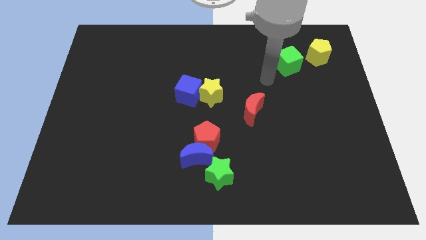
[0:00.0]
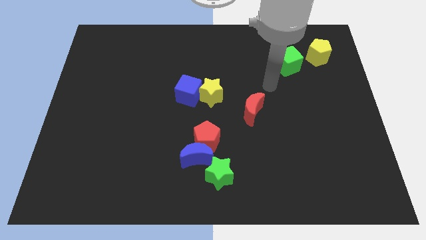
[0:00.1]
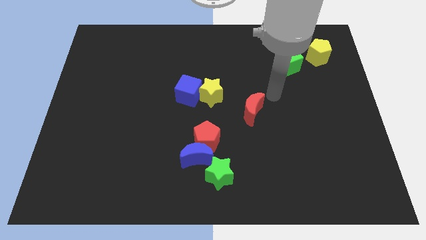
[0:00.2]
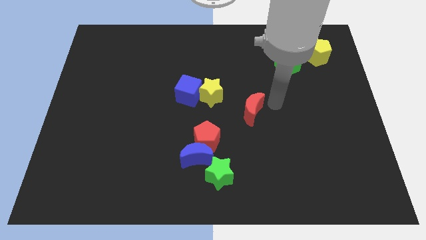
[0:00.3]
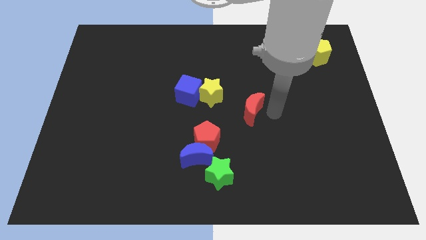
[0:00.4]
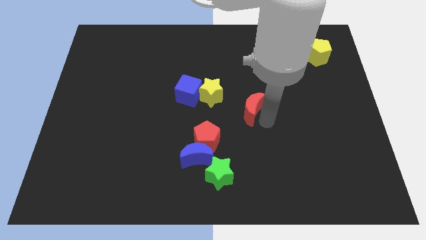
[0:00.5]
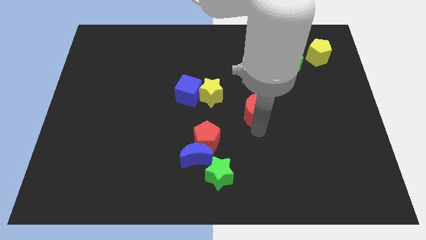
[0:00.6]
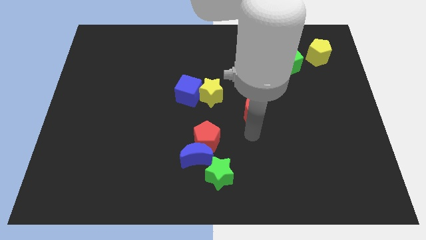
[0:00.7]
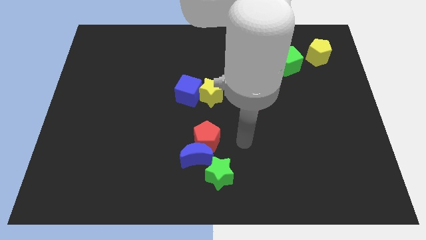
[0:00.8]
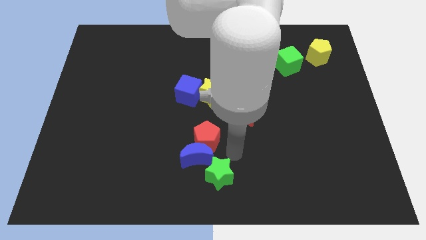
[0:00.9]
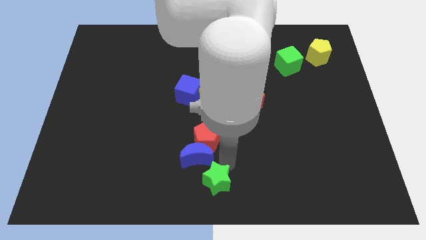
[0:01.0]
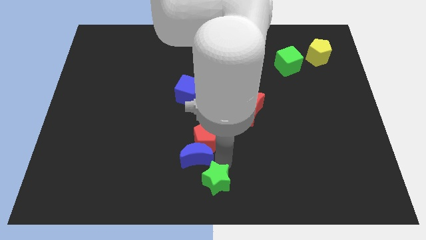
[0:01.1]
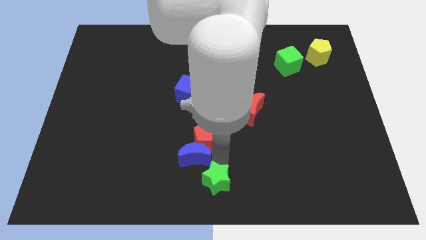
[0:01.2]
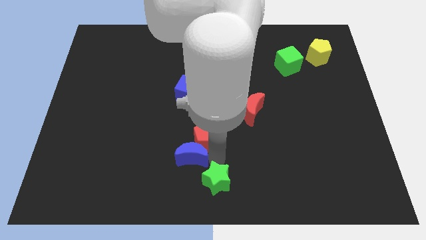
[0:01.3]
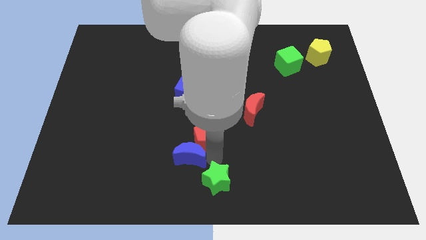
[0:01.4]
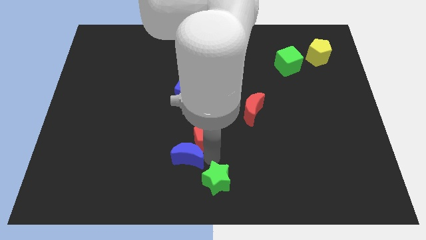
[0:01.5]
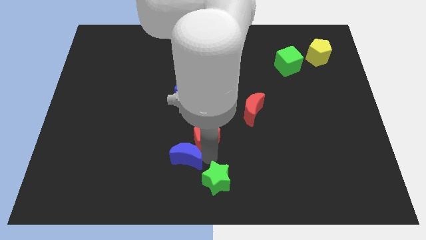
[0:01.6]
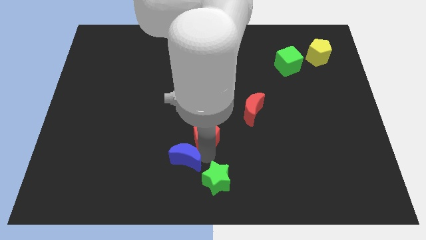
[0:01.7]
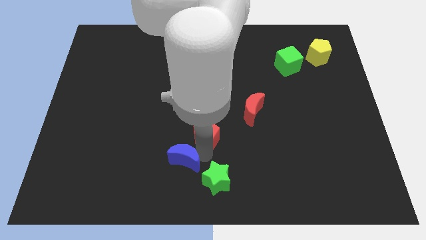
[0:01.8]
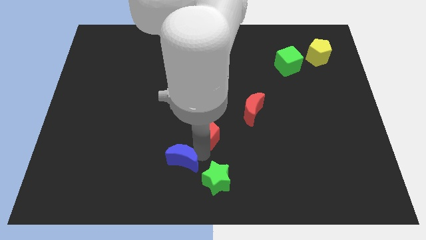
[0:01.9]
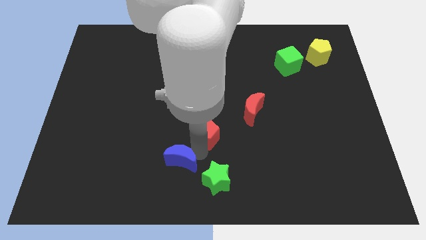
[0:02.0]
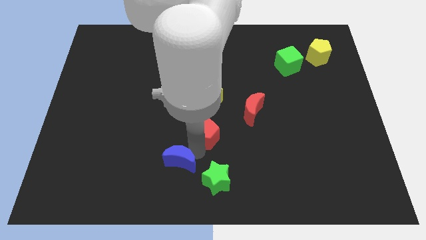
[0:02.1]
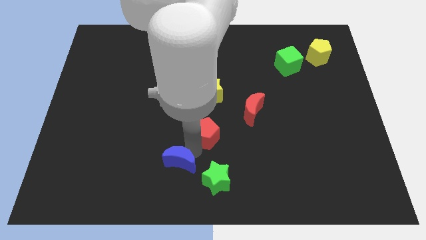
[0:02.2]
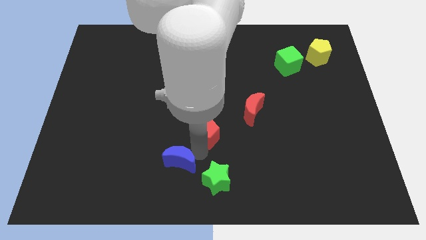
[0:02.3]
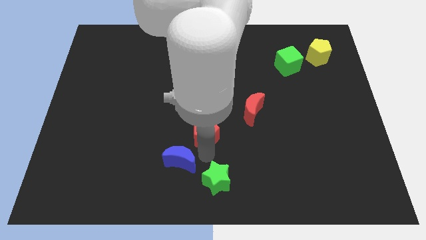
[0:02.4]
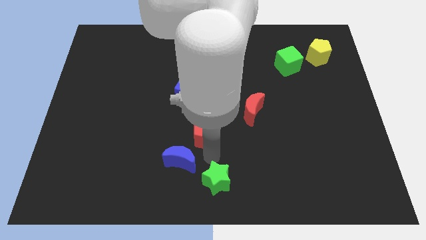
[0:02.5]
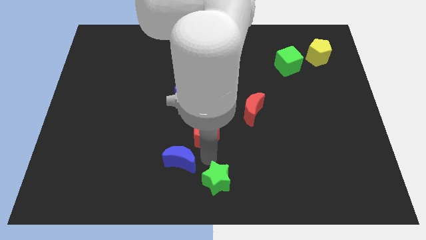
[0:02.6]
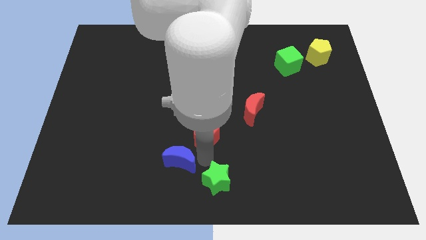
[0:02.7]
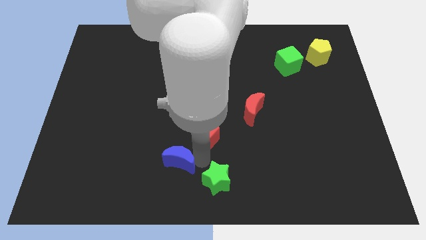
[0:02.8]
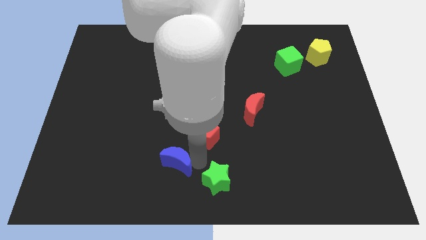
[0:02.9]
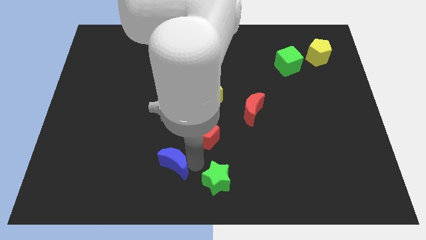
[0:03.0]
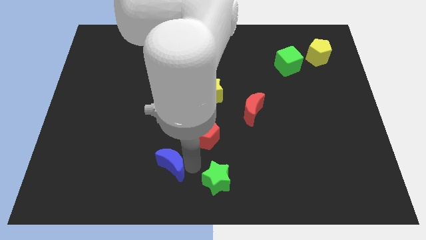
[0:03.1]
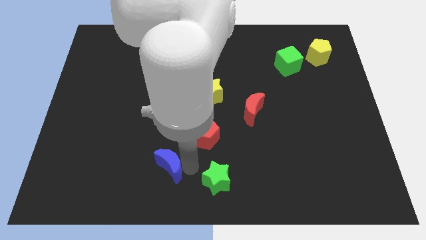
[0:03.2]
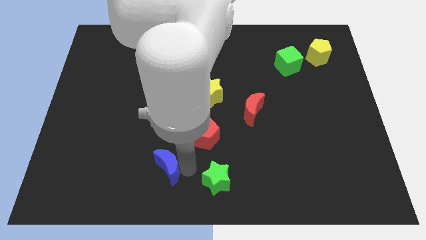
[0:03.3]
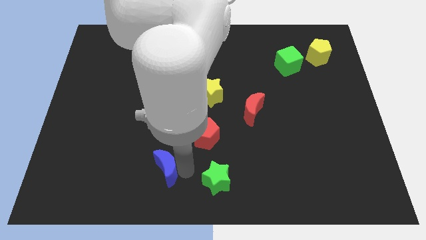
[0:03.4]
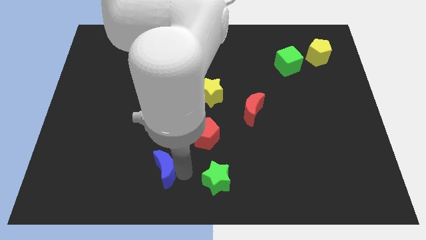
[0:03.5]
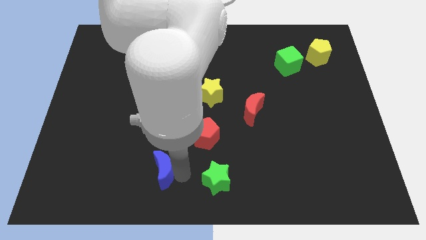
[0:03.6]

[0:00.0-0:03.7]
pull the blue moon apart from the red pentagon and green star

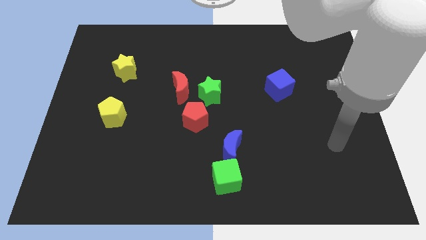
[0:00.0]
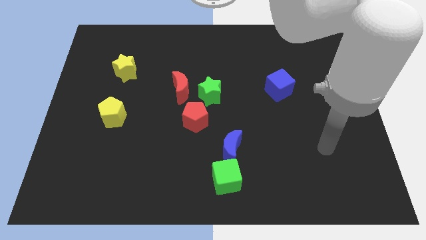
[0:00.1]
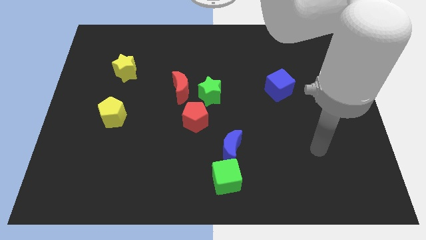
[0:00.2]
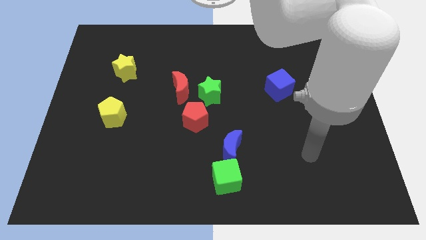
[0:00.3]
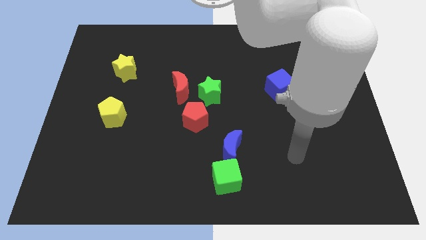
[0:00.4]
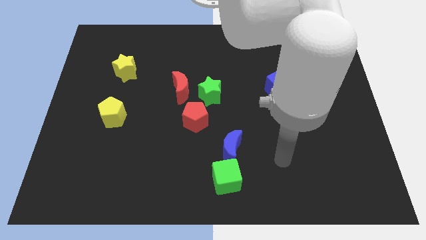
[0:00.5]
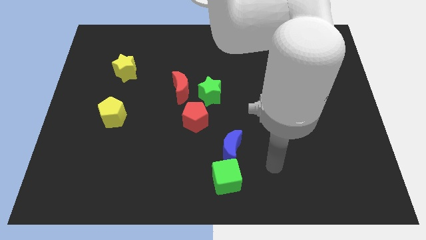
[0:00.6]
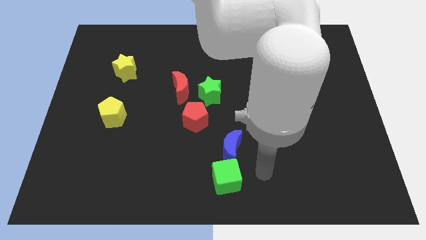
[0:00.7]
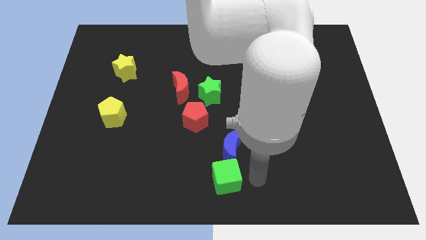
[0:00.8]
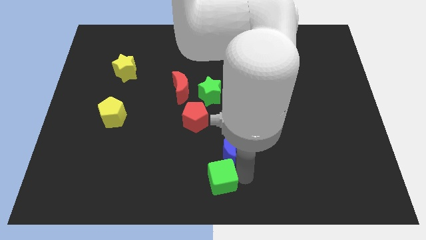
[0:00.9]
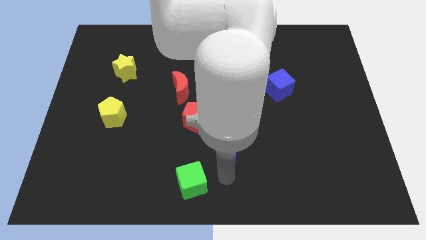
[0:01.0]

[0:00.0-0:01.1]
move the blue moon away from the green cube

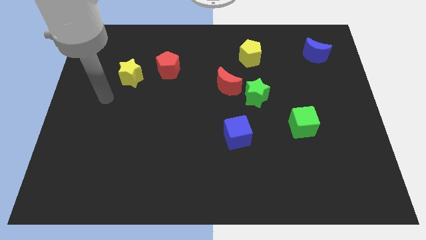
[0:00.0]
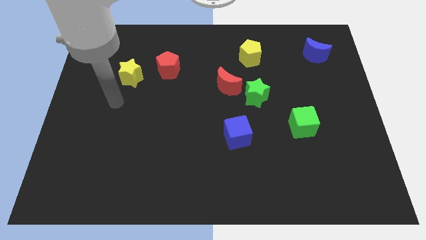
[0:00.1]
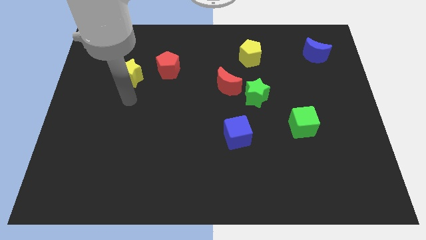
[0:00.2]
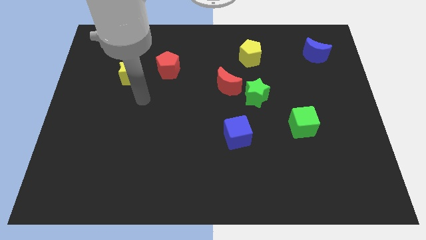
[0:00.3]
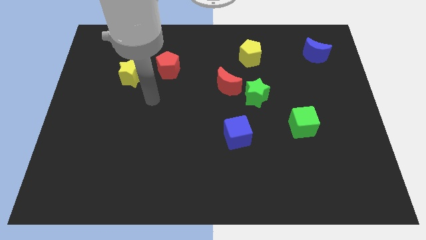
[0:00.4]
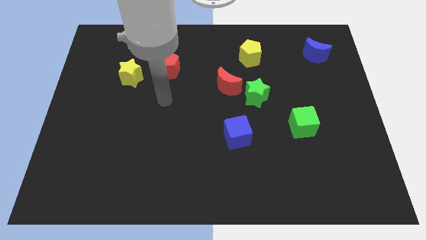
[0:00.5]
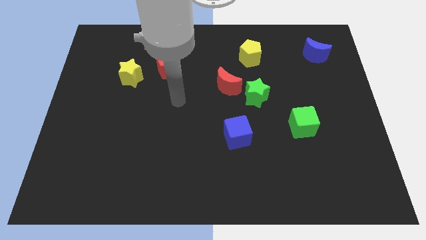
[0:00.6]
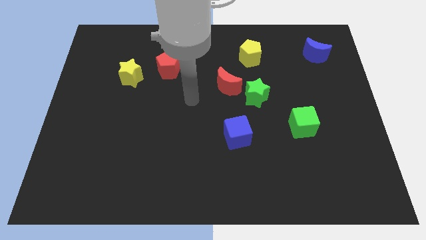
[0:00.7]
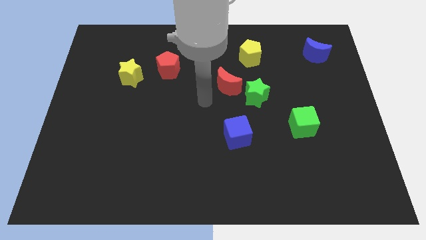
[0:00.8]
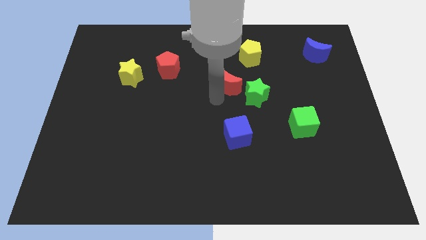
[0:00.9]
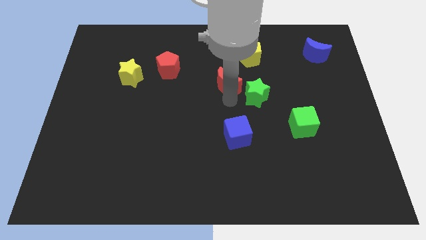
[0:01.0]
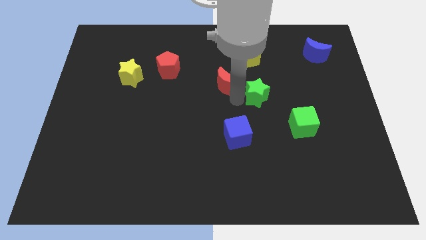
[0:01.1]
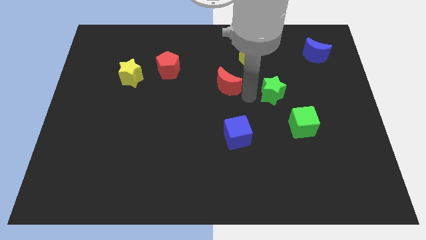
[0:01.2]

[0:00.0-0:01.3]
move the red moon away from the green star

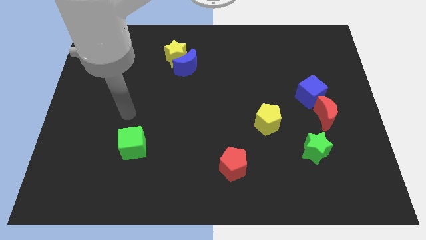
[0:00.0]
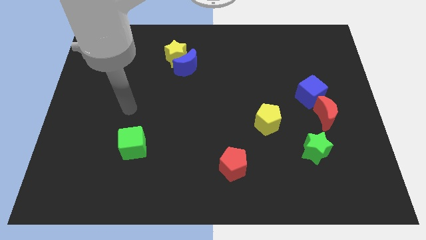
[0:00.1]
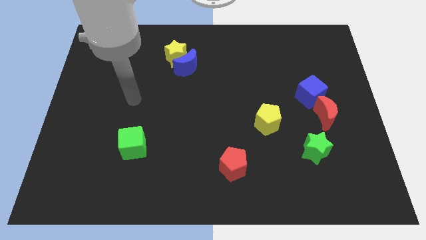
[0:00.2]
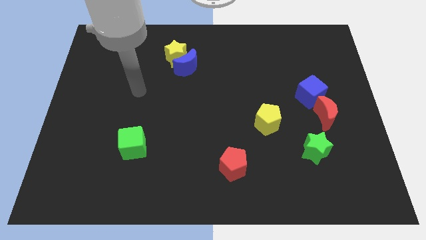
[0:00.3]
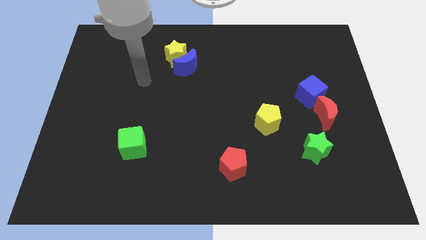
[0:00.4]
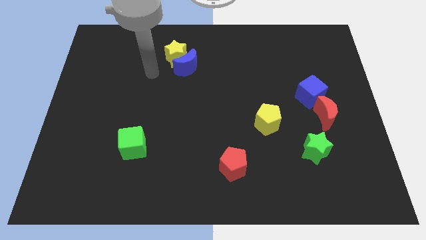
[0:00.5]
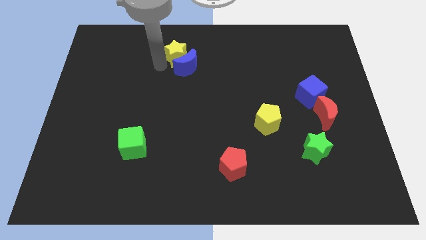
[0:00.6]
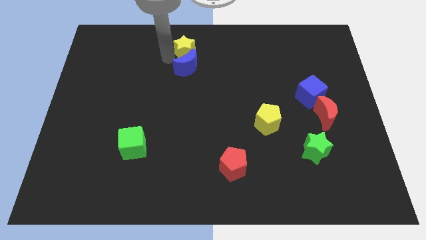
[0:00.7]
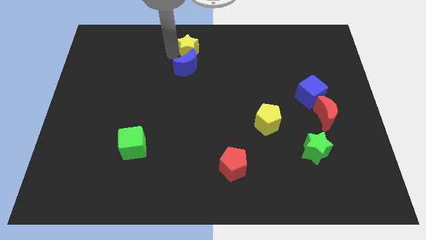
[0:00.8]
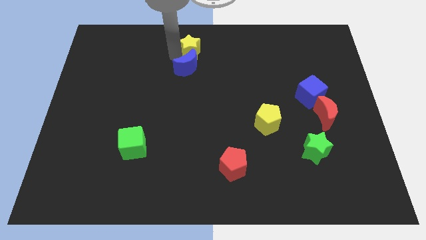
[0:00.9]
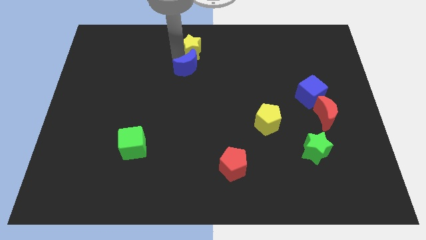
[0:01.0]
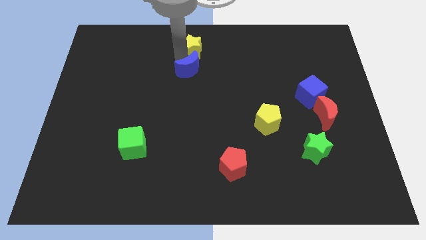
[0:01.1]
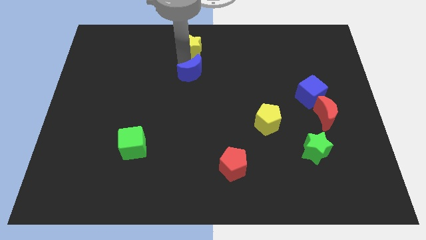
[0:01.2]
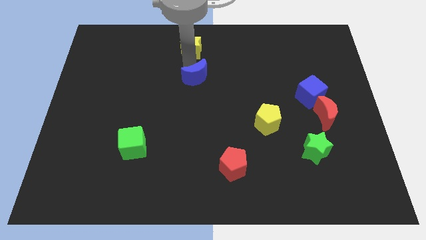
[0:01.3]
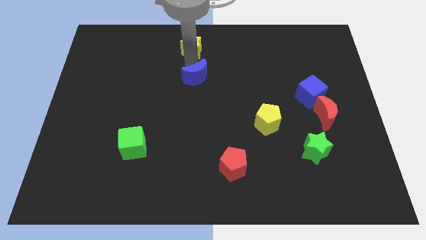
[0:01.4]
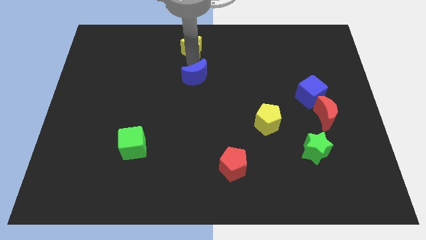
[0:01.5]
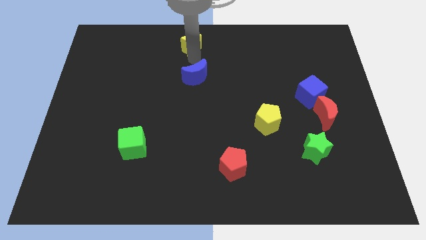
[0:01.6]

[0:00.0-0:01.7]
separate the blue moon from the yellow star

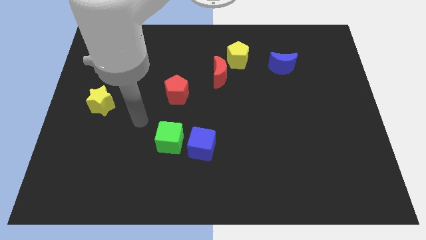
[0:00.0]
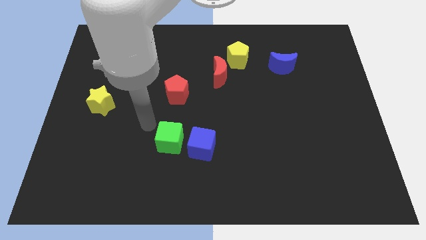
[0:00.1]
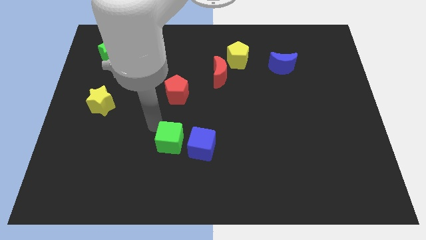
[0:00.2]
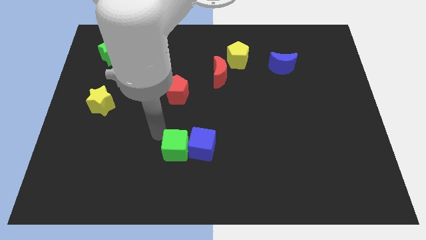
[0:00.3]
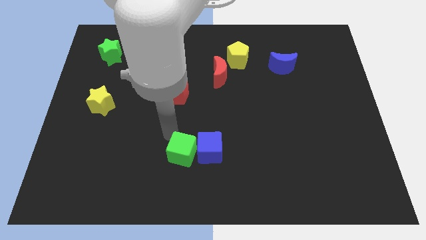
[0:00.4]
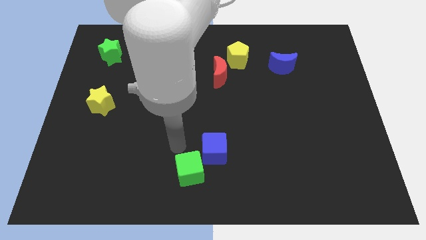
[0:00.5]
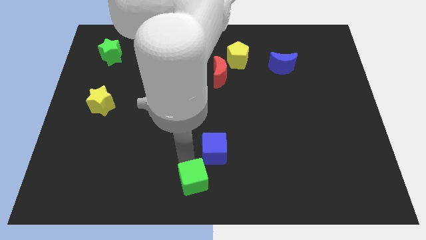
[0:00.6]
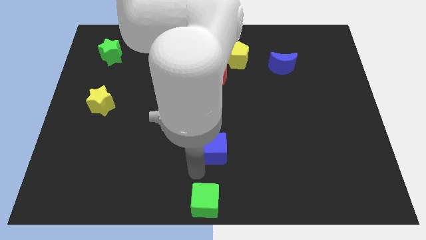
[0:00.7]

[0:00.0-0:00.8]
move the blue cube away from the green cube

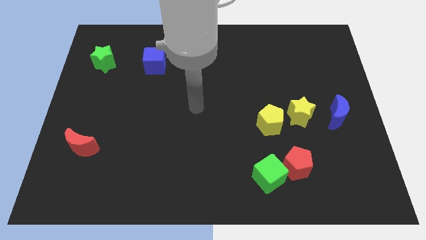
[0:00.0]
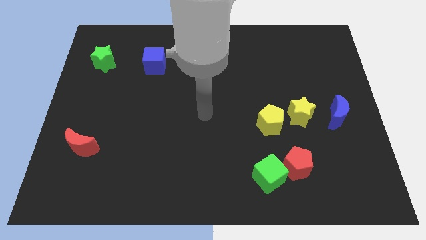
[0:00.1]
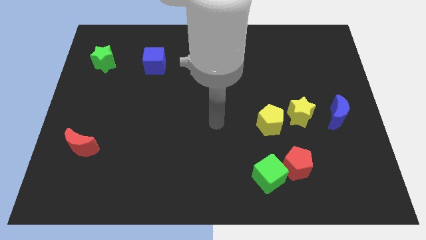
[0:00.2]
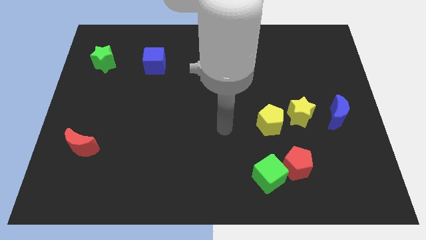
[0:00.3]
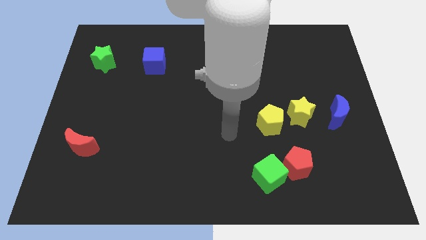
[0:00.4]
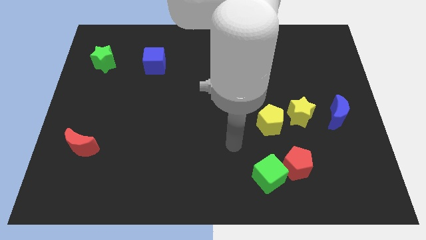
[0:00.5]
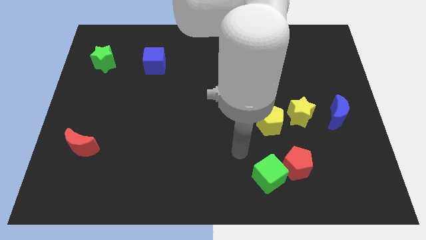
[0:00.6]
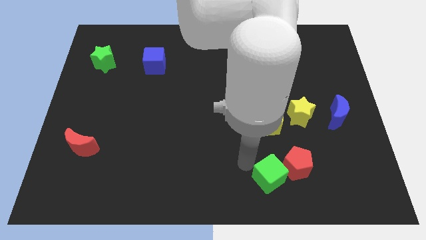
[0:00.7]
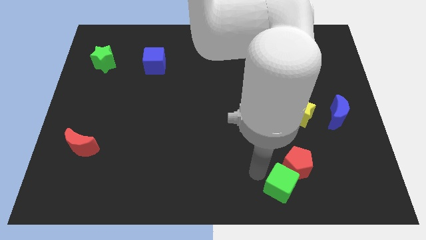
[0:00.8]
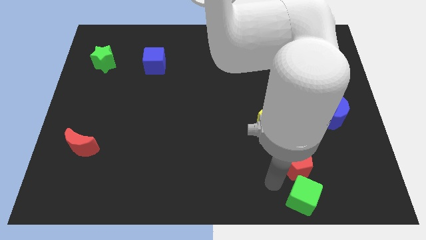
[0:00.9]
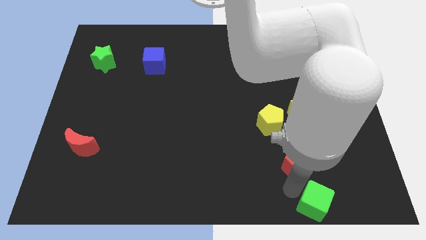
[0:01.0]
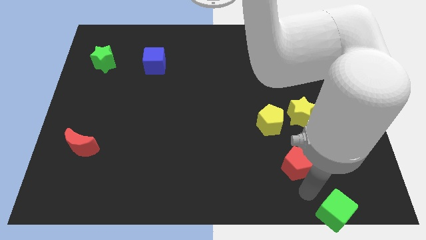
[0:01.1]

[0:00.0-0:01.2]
separate the red pentagon from the green cube